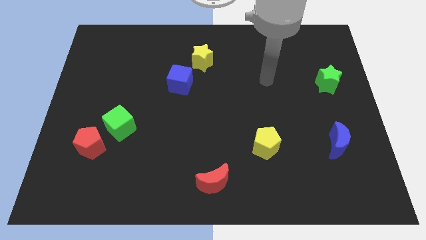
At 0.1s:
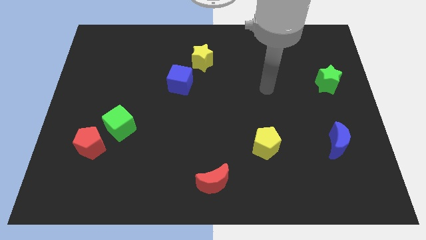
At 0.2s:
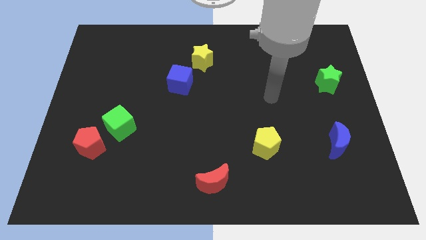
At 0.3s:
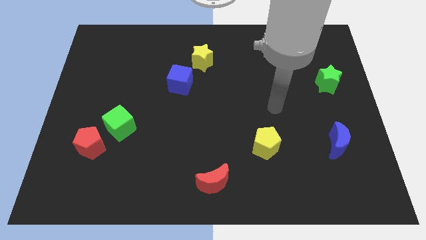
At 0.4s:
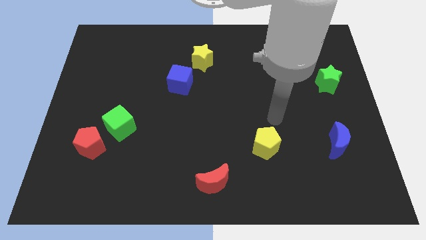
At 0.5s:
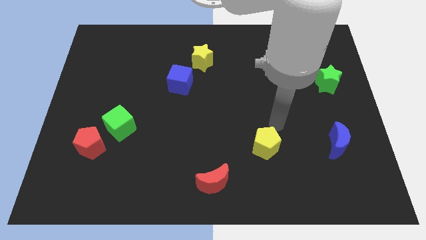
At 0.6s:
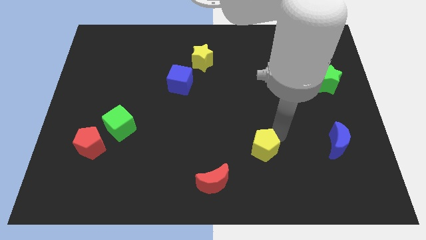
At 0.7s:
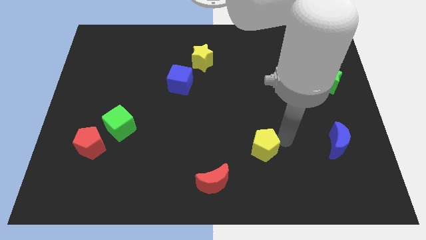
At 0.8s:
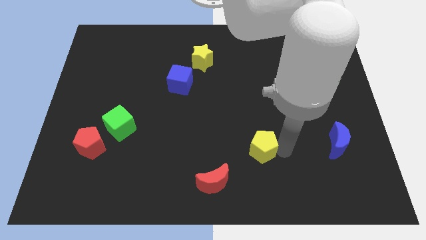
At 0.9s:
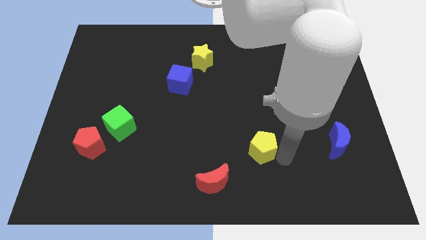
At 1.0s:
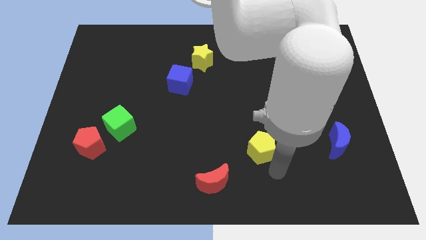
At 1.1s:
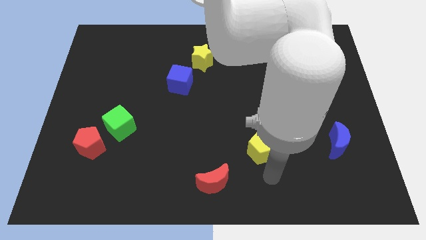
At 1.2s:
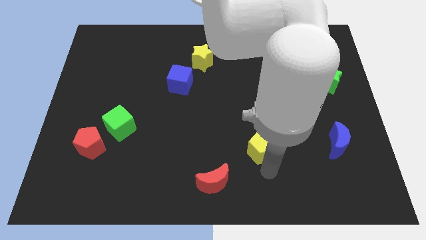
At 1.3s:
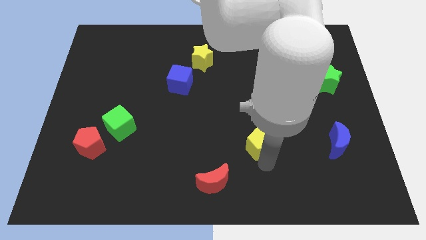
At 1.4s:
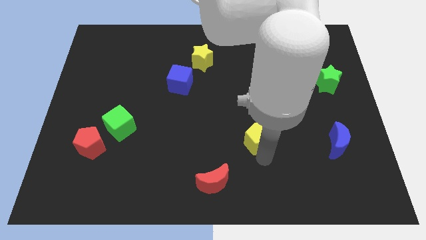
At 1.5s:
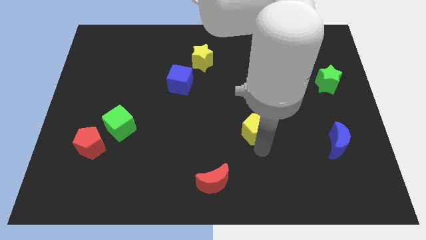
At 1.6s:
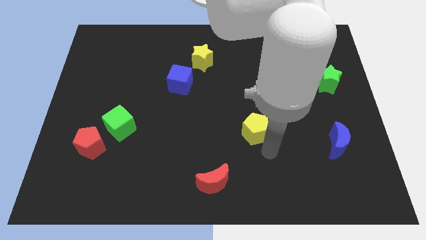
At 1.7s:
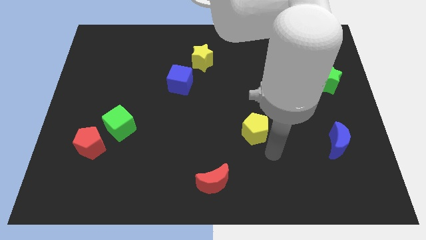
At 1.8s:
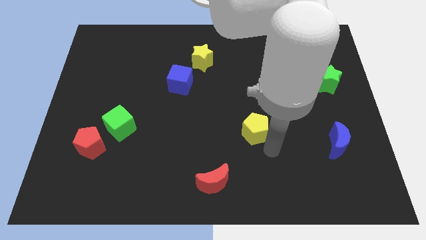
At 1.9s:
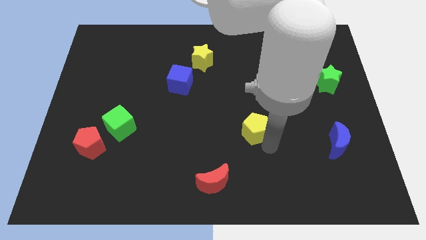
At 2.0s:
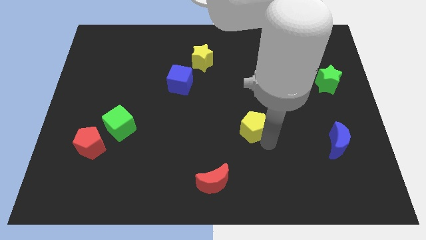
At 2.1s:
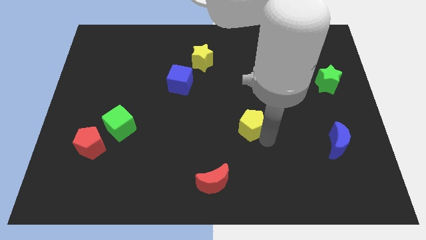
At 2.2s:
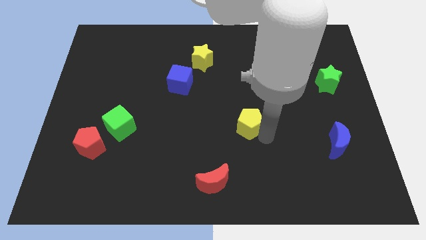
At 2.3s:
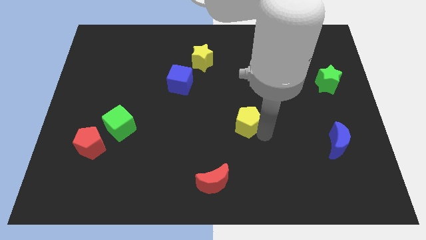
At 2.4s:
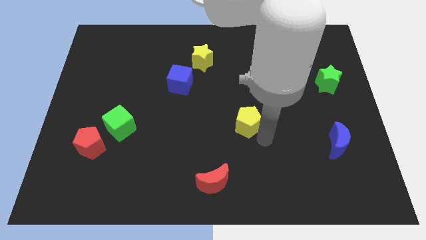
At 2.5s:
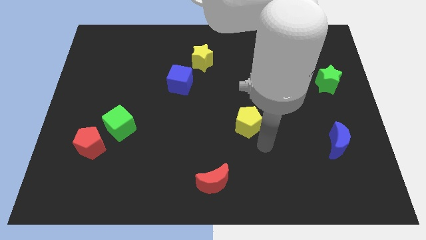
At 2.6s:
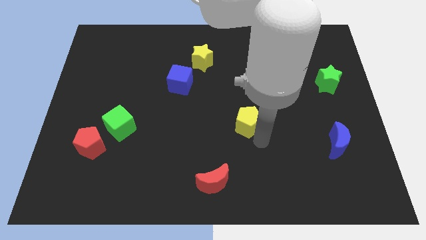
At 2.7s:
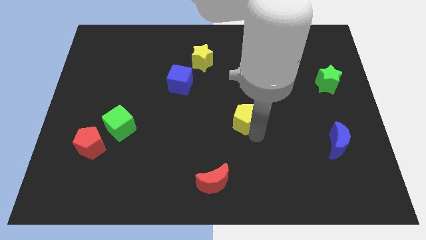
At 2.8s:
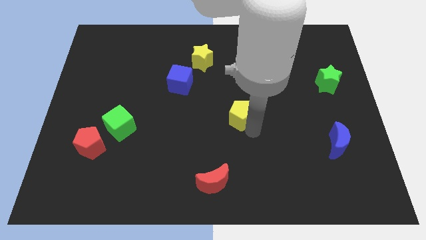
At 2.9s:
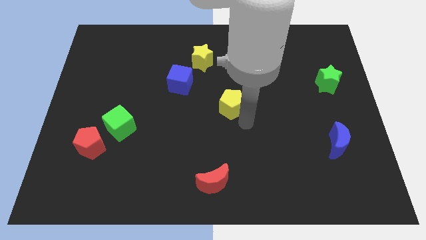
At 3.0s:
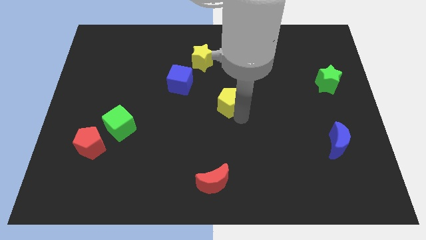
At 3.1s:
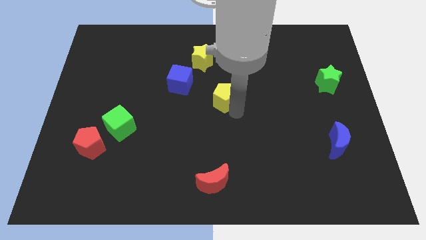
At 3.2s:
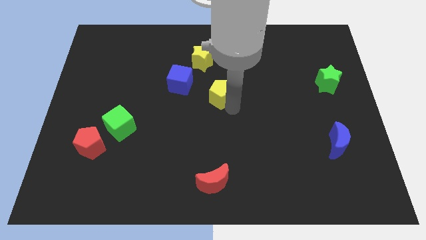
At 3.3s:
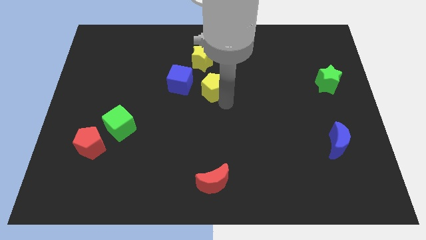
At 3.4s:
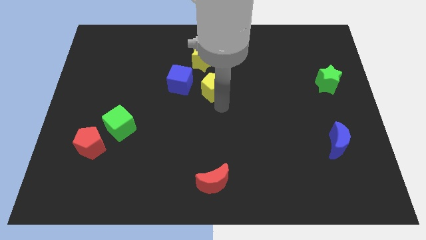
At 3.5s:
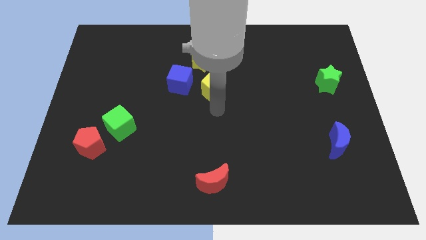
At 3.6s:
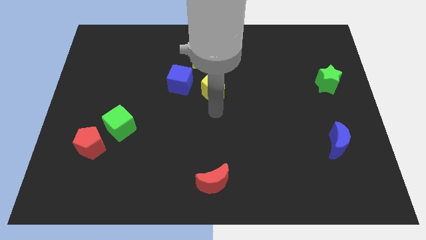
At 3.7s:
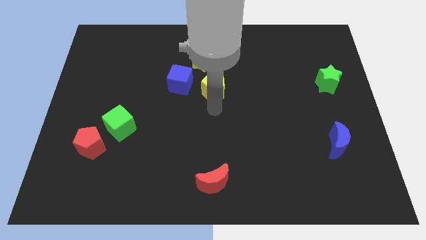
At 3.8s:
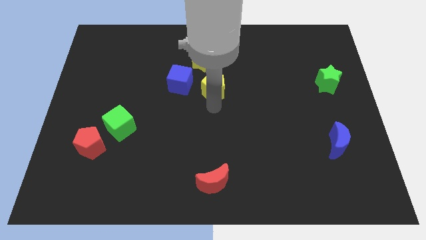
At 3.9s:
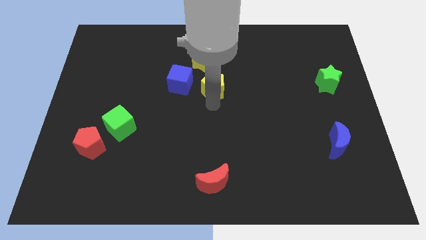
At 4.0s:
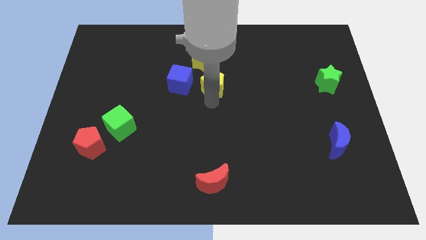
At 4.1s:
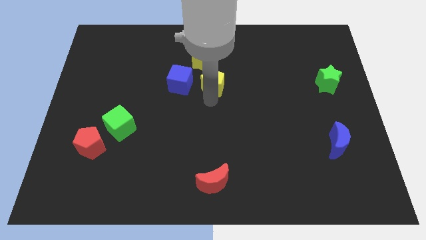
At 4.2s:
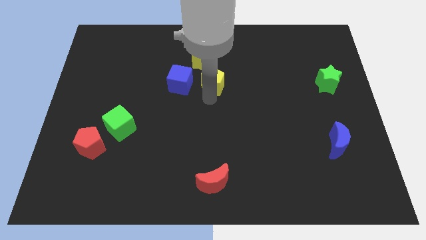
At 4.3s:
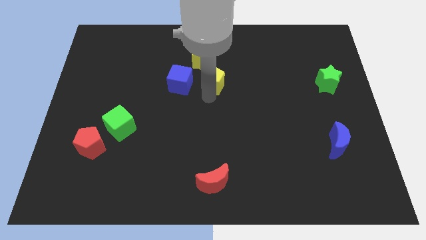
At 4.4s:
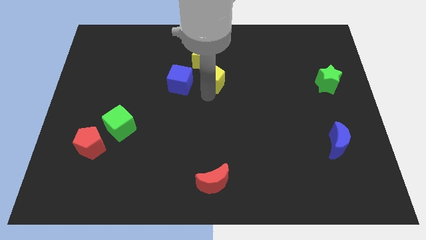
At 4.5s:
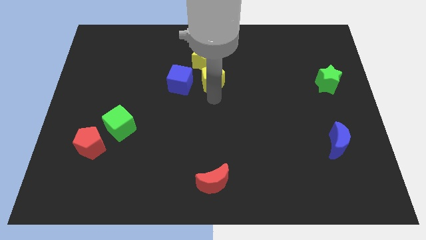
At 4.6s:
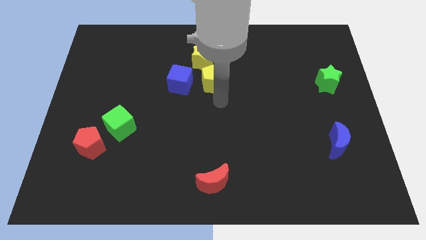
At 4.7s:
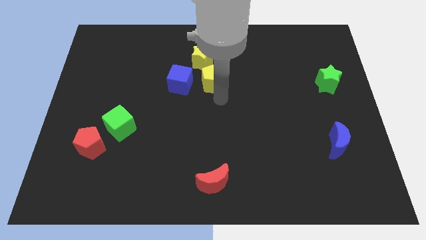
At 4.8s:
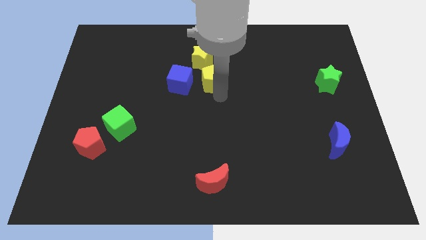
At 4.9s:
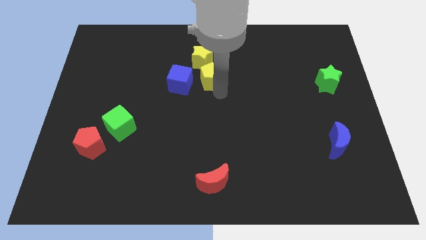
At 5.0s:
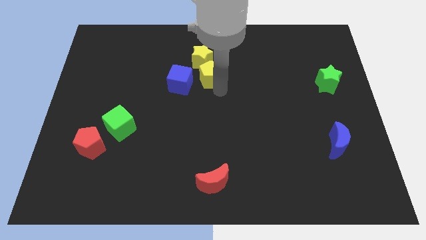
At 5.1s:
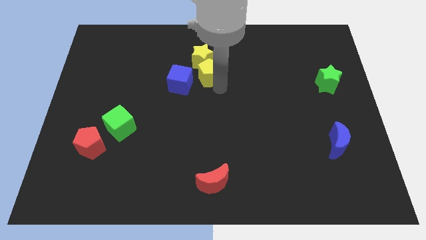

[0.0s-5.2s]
slide the yellow pentagon close to the yellow star

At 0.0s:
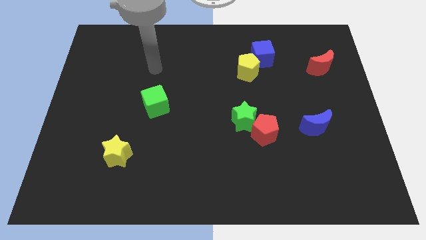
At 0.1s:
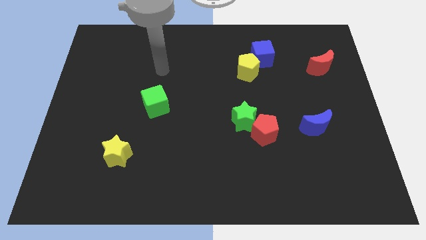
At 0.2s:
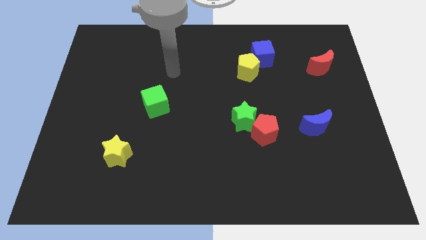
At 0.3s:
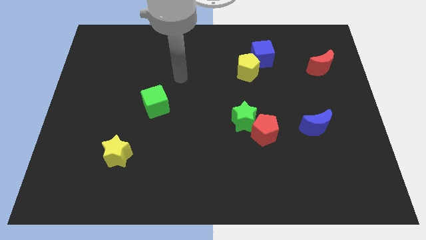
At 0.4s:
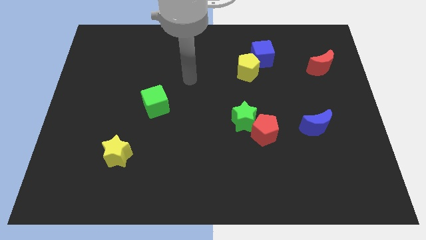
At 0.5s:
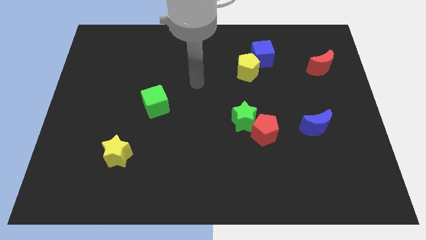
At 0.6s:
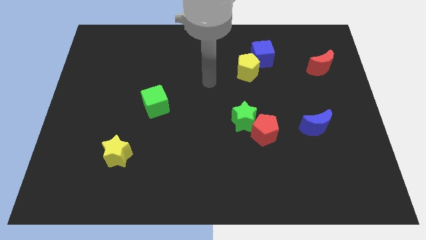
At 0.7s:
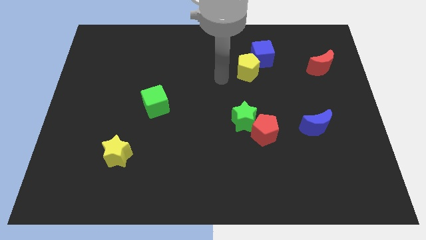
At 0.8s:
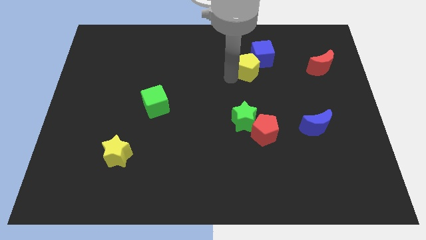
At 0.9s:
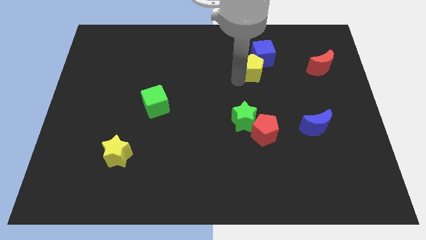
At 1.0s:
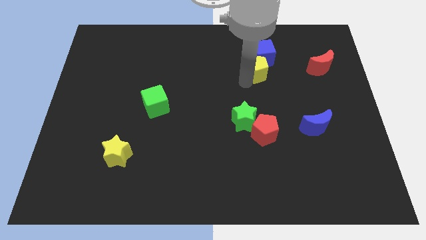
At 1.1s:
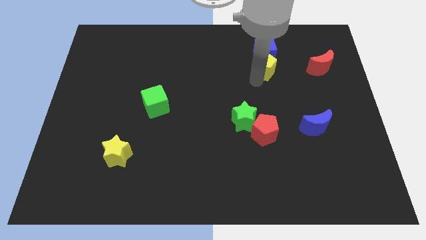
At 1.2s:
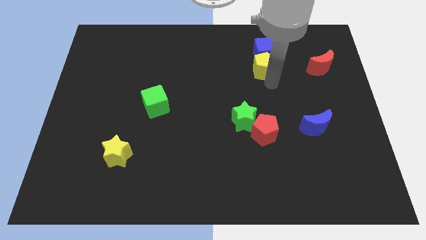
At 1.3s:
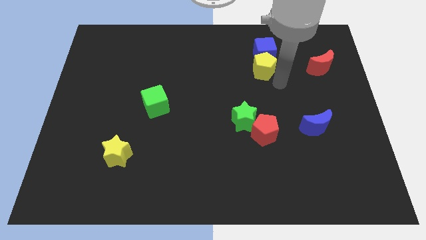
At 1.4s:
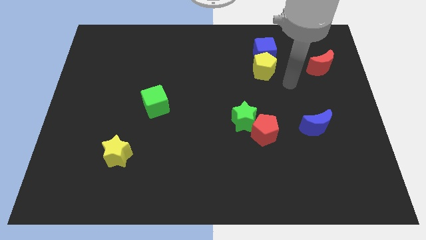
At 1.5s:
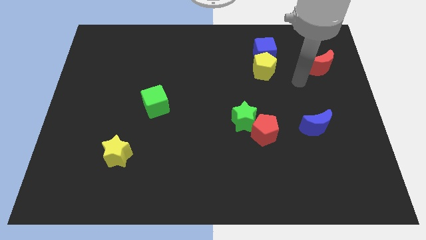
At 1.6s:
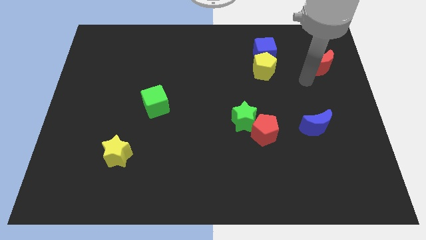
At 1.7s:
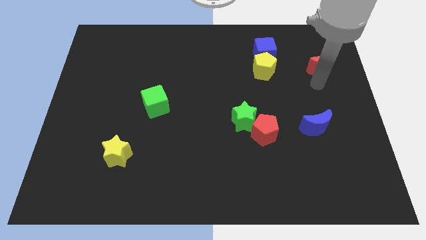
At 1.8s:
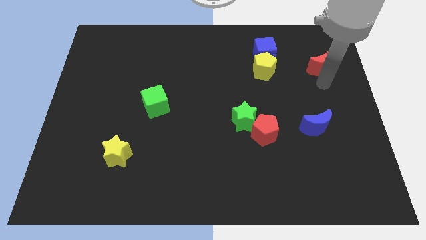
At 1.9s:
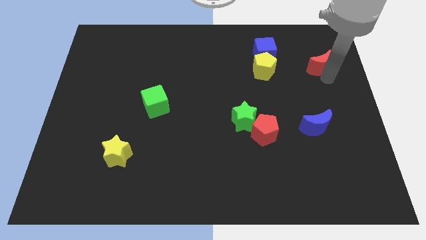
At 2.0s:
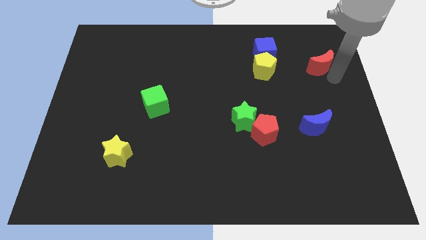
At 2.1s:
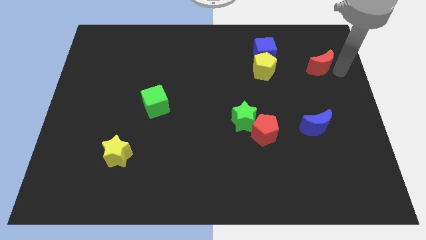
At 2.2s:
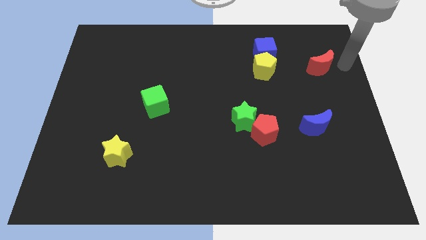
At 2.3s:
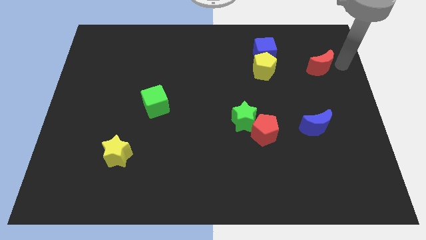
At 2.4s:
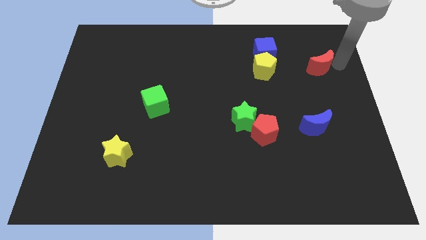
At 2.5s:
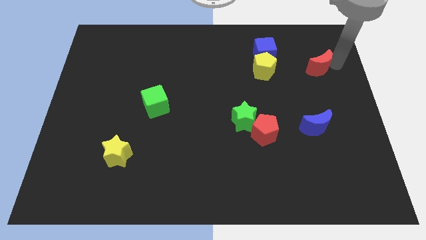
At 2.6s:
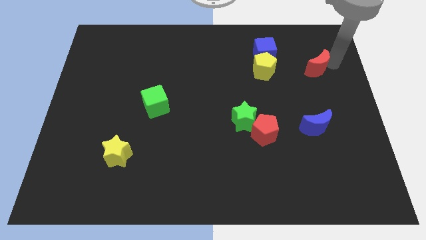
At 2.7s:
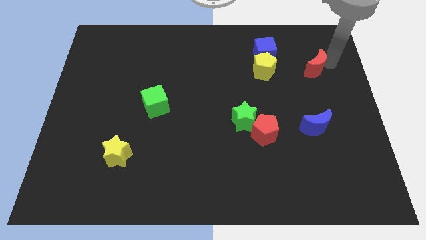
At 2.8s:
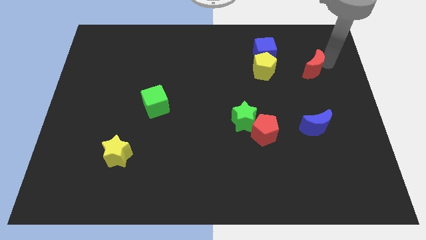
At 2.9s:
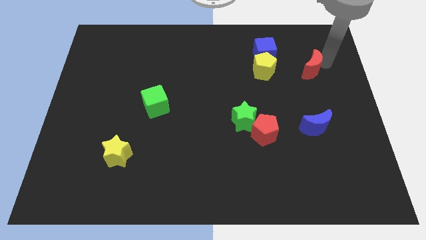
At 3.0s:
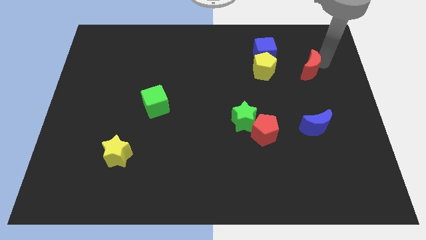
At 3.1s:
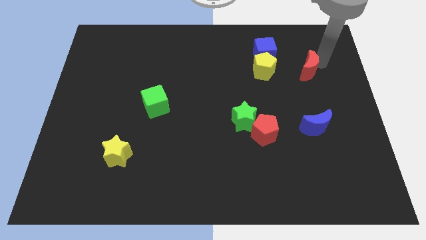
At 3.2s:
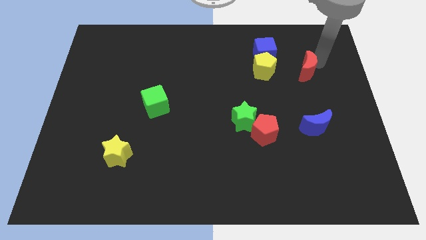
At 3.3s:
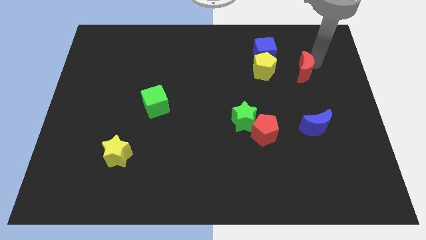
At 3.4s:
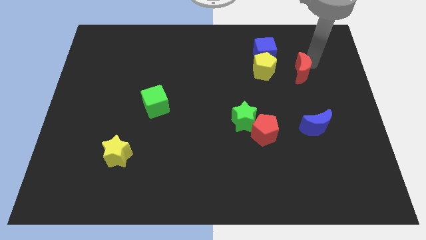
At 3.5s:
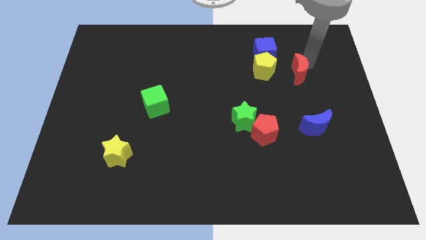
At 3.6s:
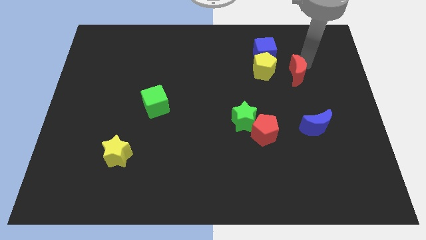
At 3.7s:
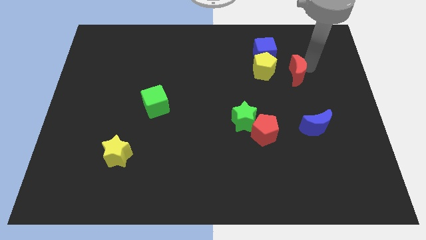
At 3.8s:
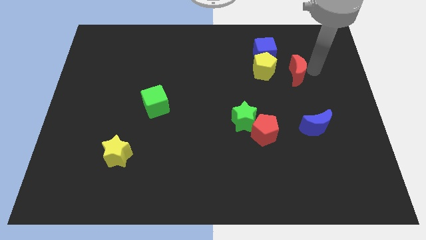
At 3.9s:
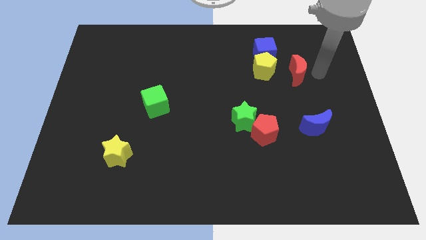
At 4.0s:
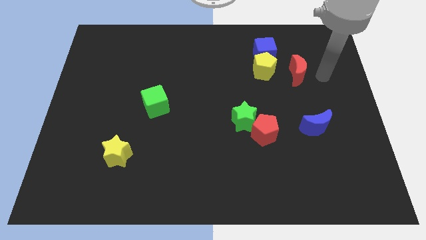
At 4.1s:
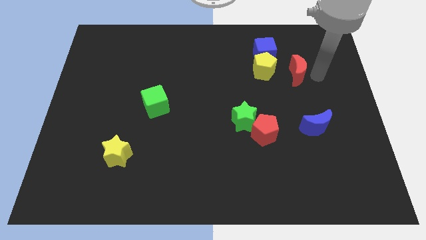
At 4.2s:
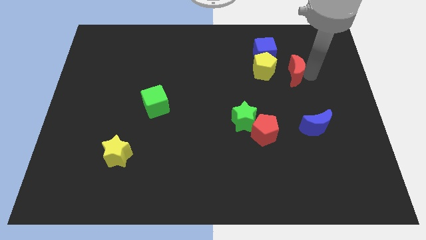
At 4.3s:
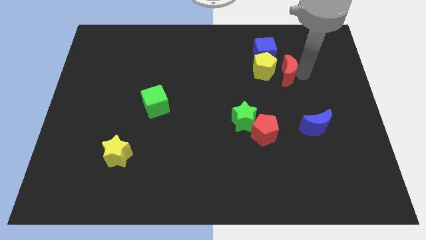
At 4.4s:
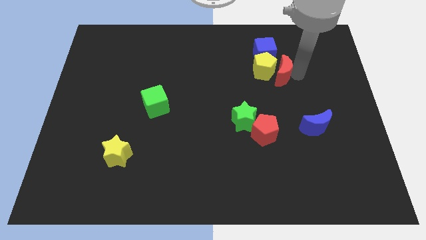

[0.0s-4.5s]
put the red moon to the yellow pentagon
